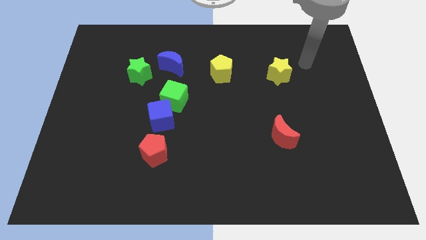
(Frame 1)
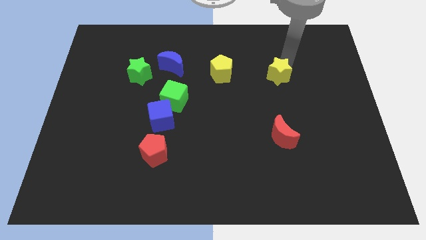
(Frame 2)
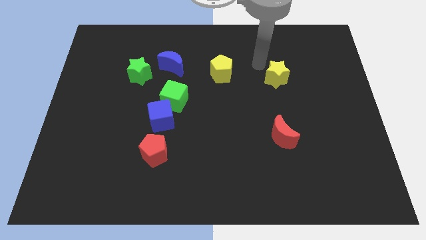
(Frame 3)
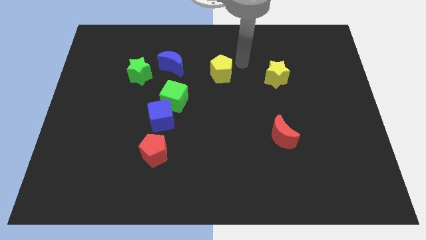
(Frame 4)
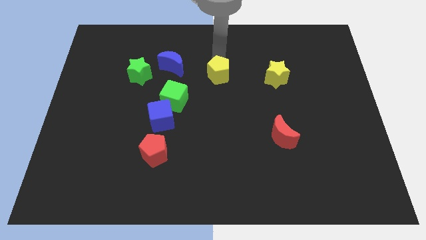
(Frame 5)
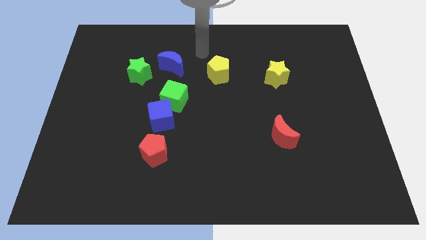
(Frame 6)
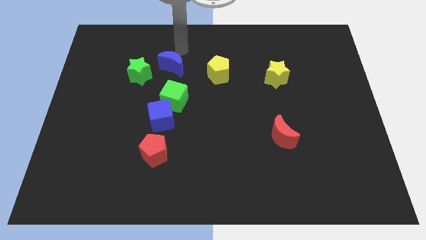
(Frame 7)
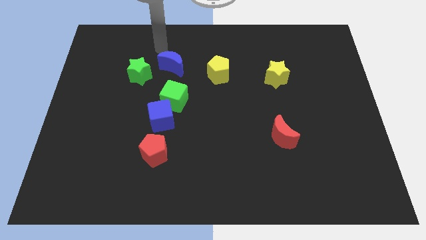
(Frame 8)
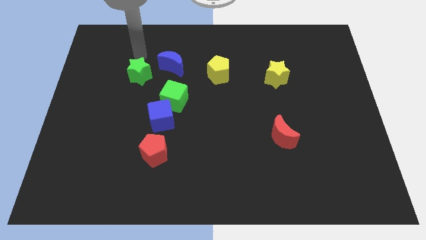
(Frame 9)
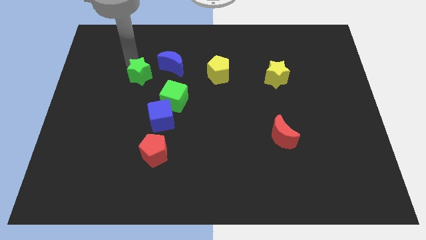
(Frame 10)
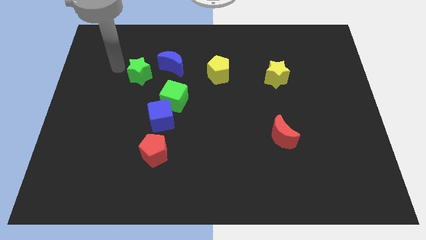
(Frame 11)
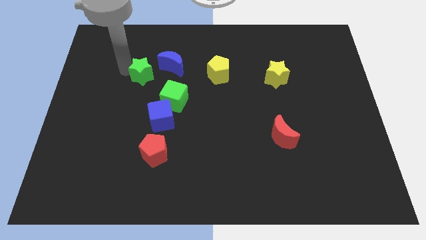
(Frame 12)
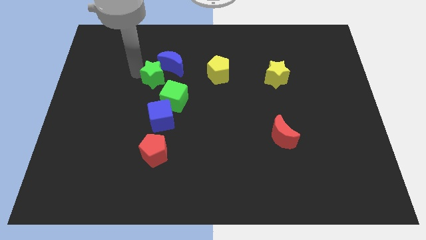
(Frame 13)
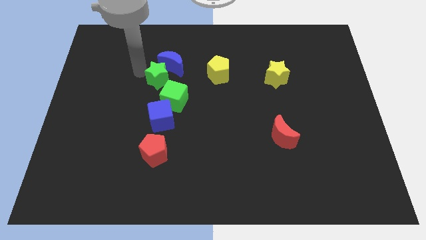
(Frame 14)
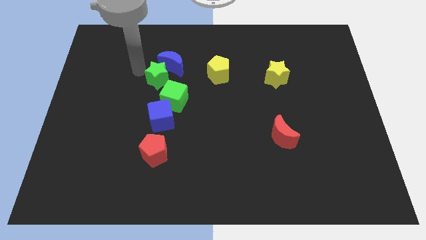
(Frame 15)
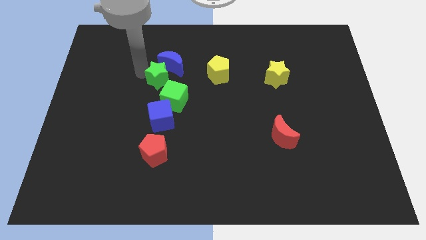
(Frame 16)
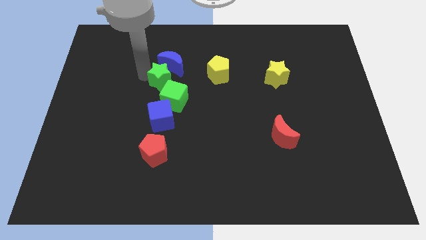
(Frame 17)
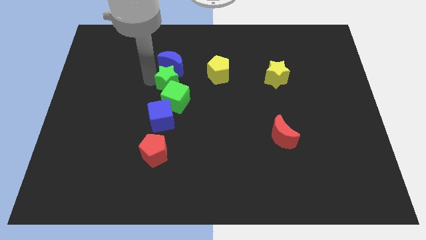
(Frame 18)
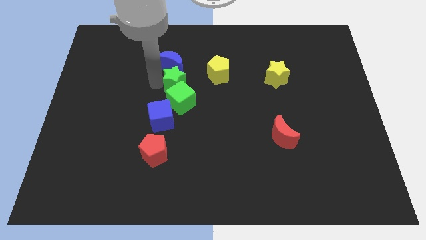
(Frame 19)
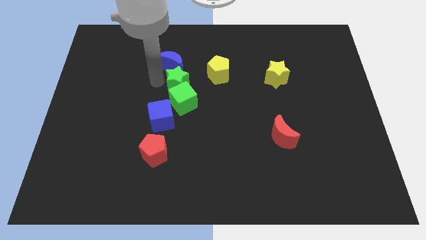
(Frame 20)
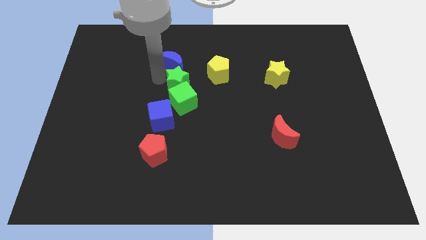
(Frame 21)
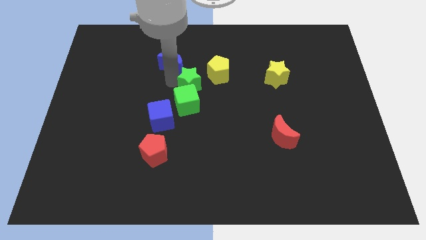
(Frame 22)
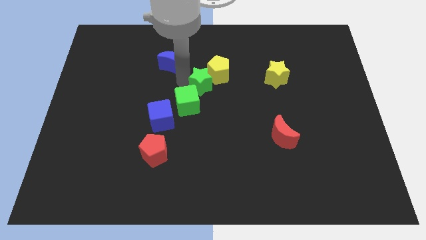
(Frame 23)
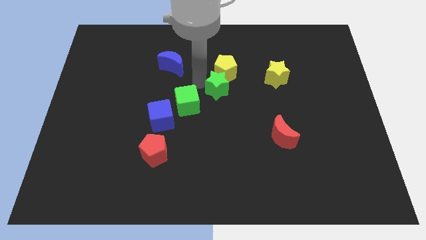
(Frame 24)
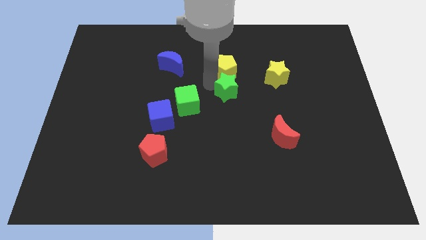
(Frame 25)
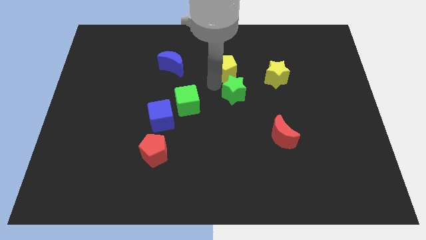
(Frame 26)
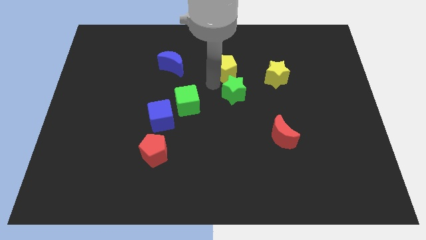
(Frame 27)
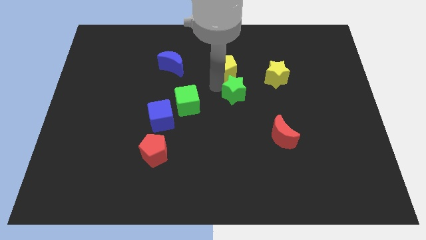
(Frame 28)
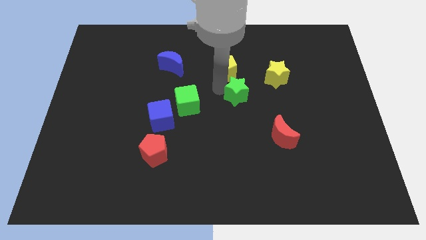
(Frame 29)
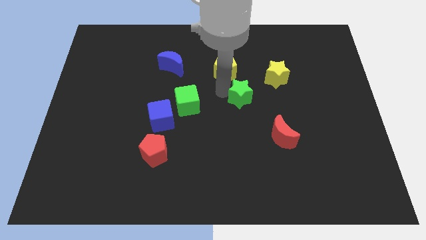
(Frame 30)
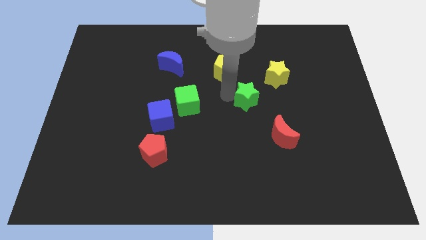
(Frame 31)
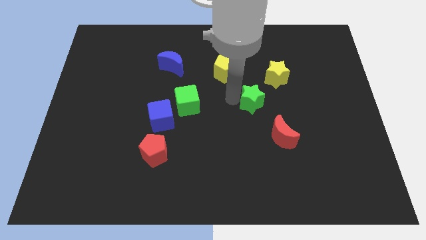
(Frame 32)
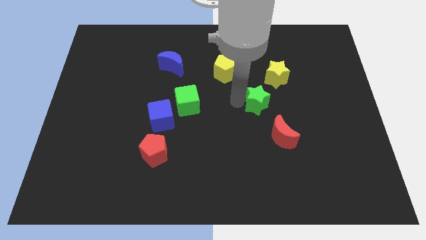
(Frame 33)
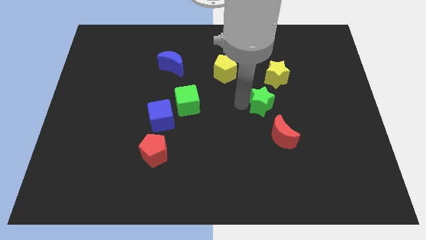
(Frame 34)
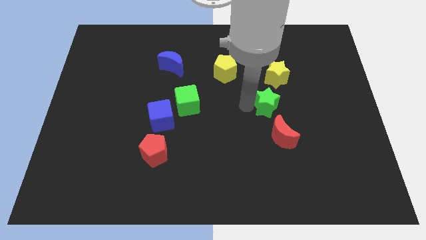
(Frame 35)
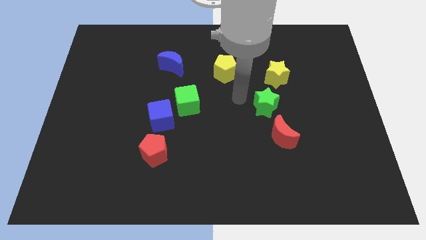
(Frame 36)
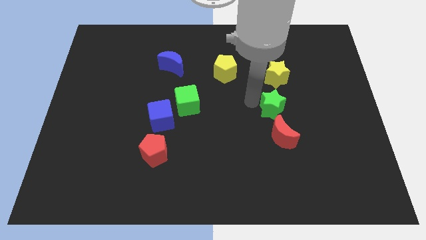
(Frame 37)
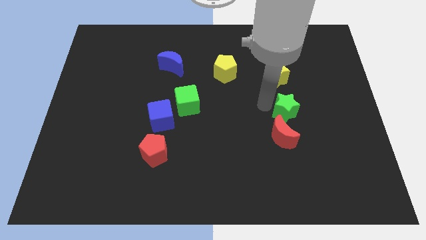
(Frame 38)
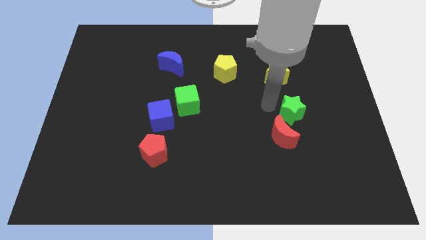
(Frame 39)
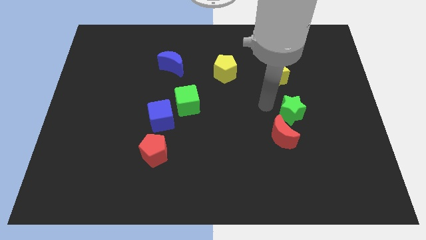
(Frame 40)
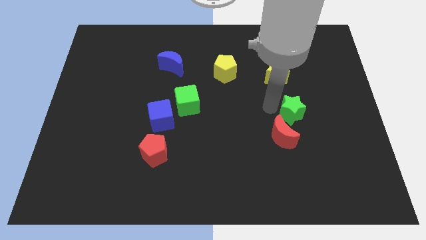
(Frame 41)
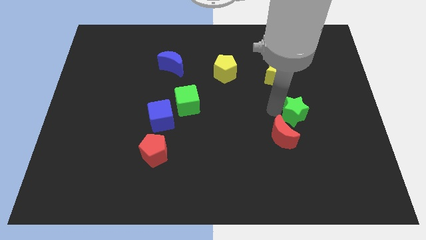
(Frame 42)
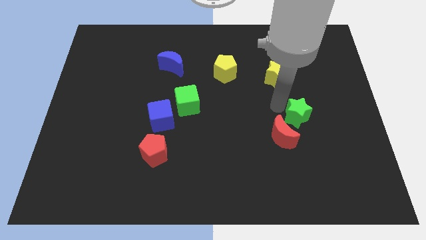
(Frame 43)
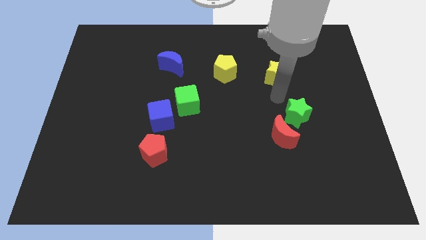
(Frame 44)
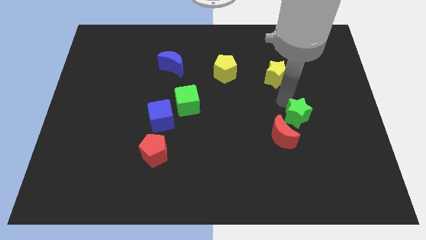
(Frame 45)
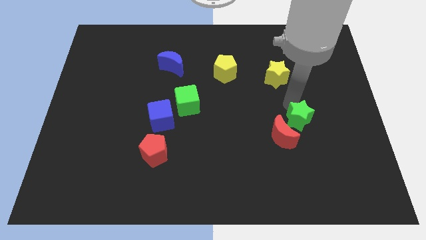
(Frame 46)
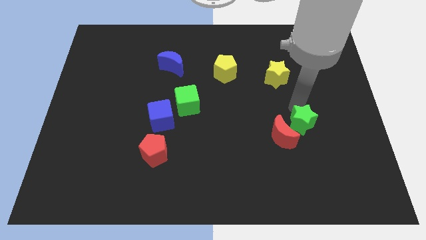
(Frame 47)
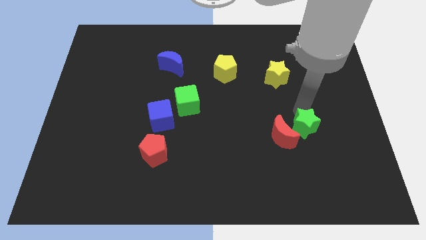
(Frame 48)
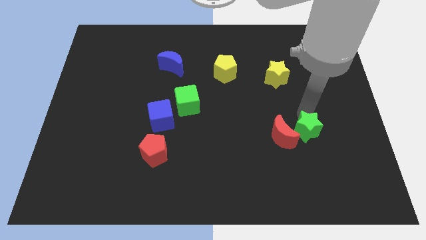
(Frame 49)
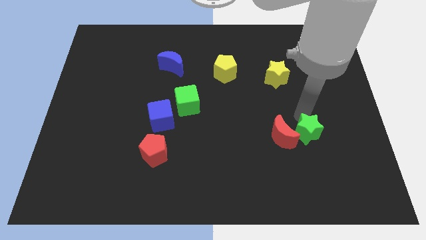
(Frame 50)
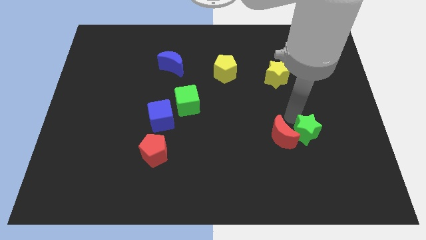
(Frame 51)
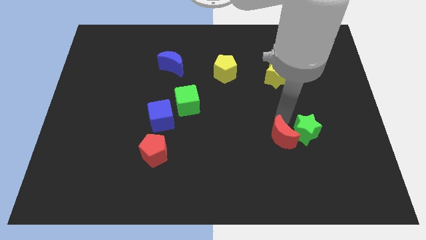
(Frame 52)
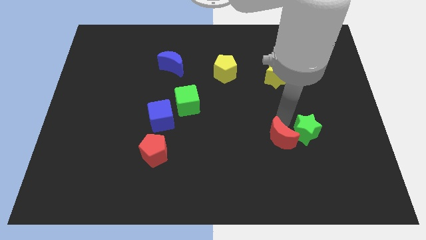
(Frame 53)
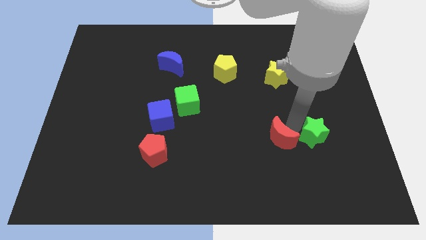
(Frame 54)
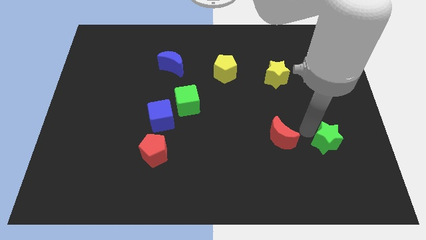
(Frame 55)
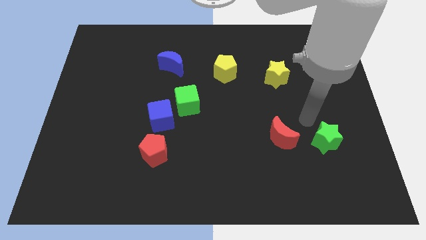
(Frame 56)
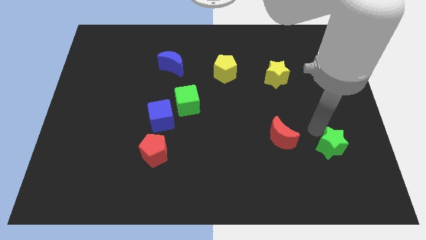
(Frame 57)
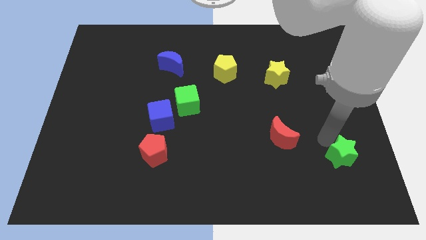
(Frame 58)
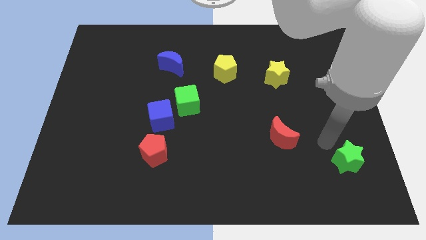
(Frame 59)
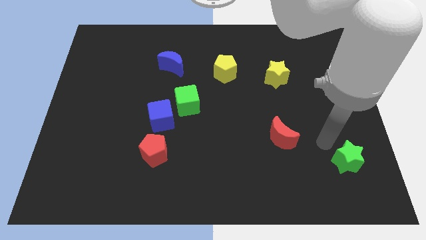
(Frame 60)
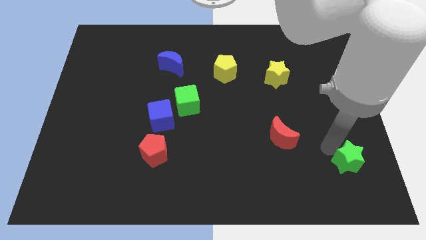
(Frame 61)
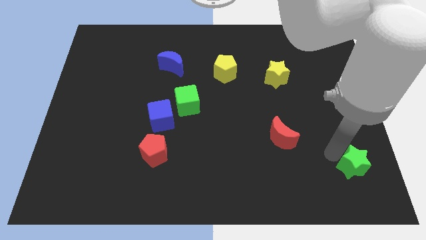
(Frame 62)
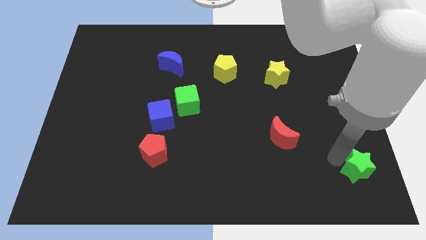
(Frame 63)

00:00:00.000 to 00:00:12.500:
put the green star to the bottom right of the board
